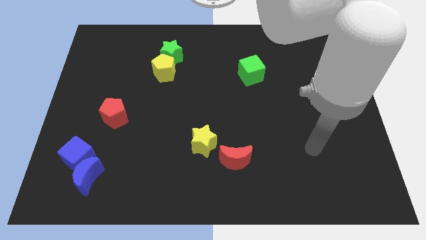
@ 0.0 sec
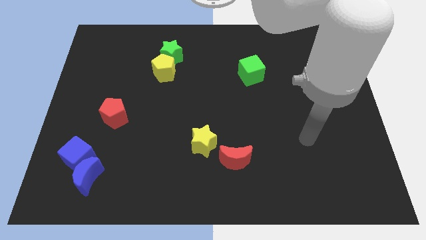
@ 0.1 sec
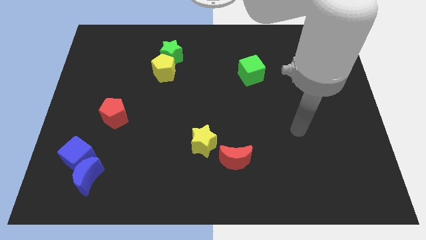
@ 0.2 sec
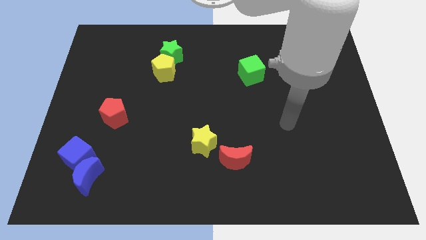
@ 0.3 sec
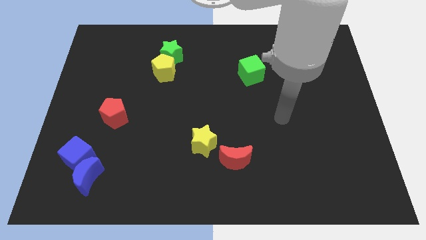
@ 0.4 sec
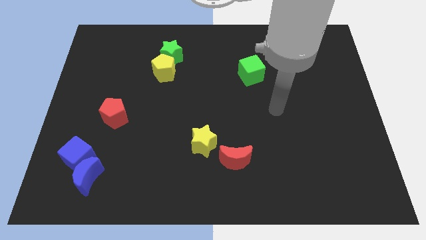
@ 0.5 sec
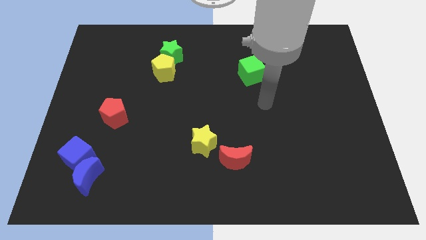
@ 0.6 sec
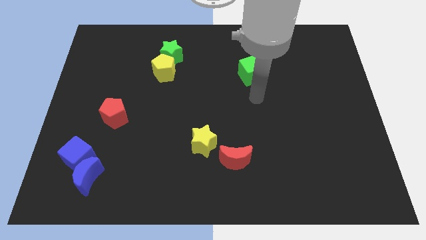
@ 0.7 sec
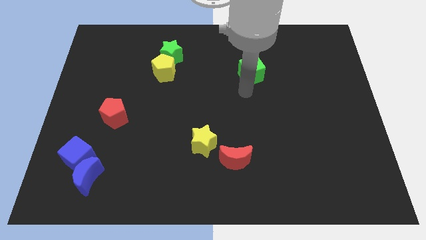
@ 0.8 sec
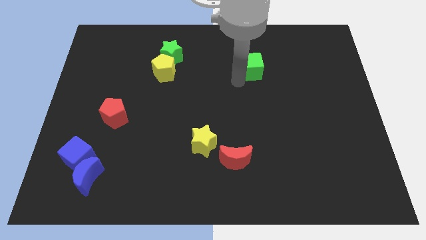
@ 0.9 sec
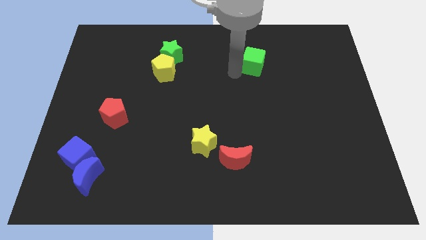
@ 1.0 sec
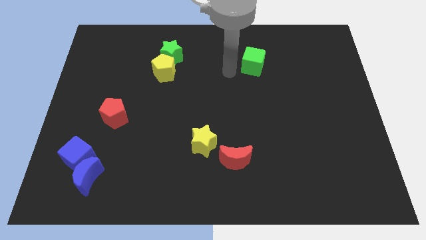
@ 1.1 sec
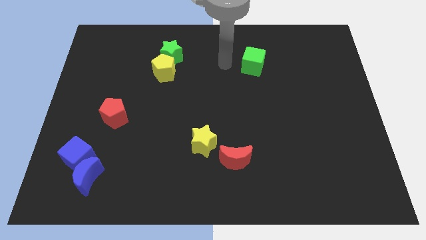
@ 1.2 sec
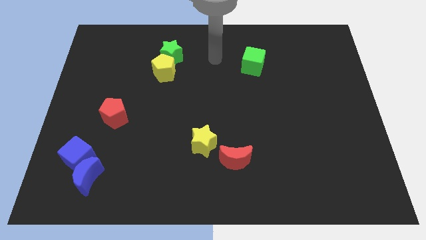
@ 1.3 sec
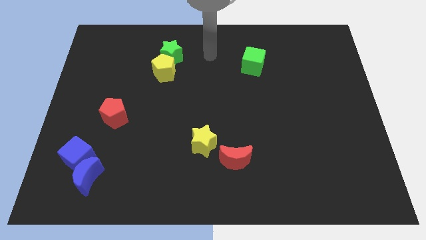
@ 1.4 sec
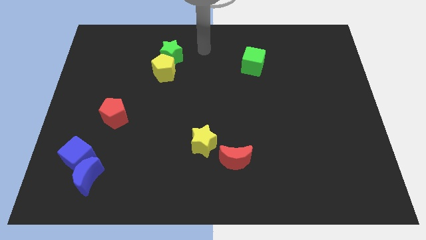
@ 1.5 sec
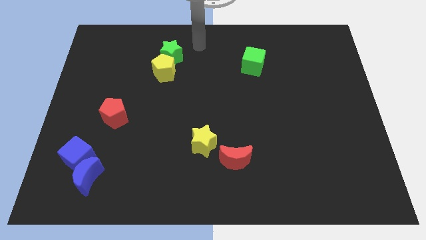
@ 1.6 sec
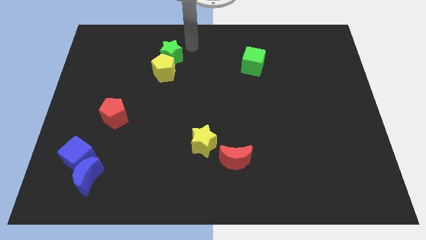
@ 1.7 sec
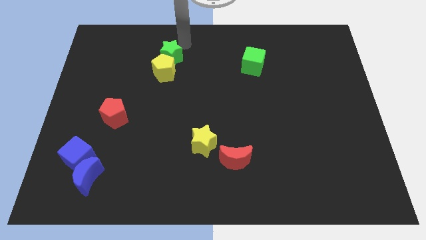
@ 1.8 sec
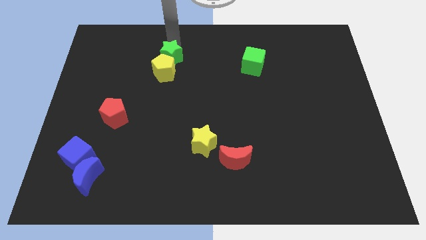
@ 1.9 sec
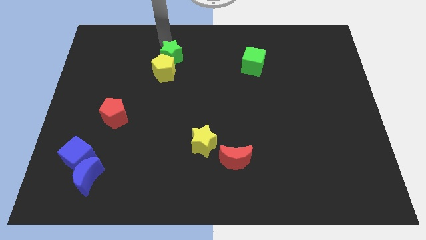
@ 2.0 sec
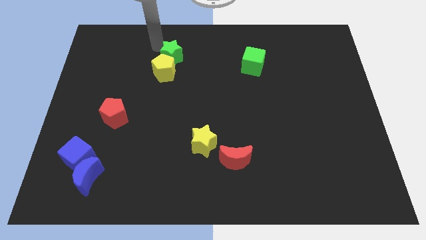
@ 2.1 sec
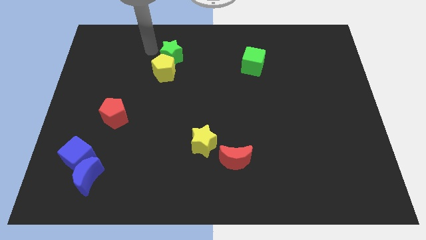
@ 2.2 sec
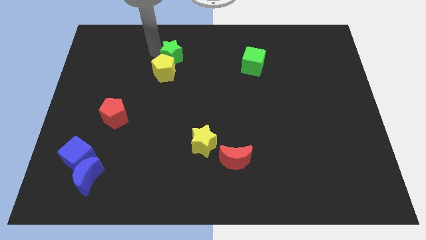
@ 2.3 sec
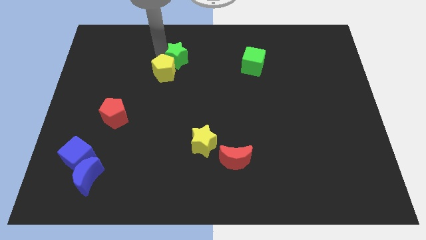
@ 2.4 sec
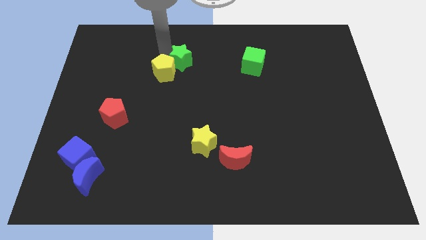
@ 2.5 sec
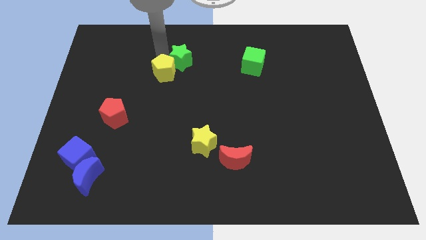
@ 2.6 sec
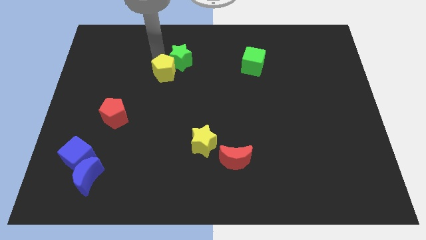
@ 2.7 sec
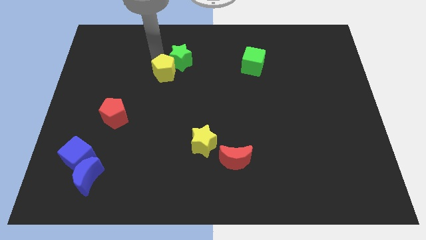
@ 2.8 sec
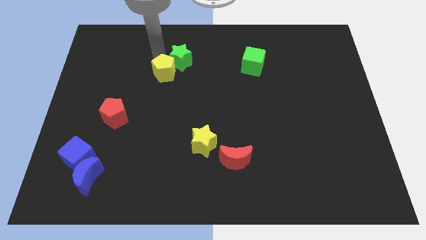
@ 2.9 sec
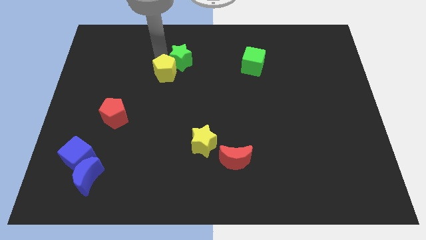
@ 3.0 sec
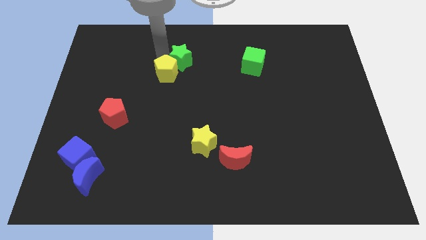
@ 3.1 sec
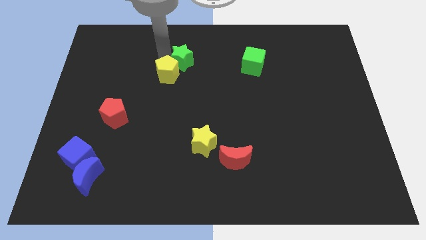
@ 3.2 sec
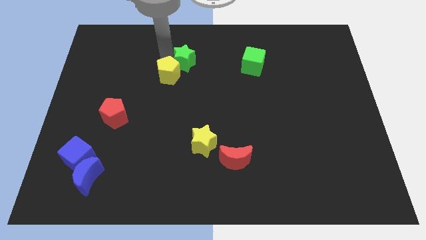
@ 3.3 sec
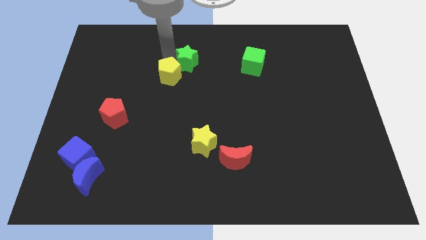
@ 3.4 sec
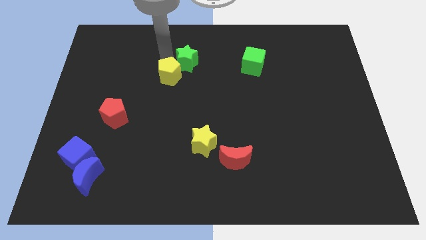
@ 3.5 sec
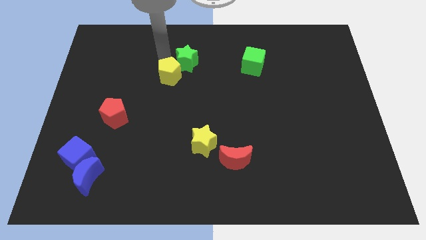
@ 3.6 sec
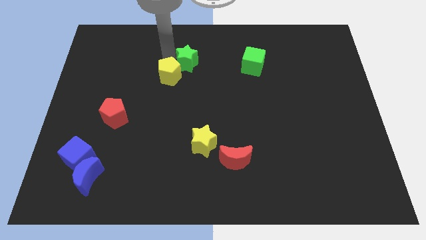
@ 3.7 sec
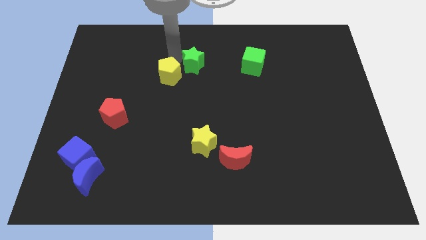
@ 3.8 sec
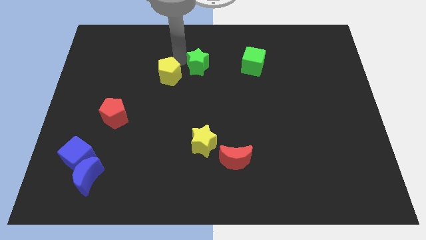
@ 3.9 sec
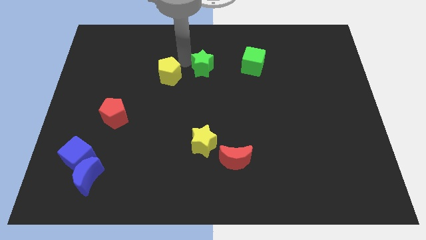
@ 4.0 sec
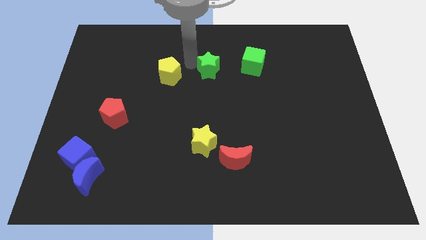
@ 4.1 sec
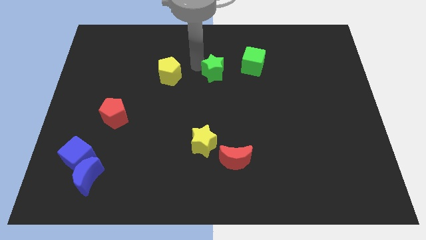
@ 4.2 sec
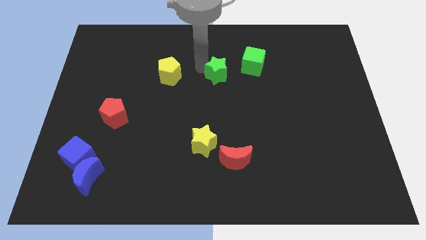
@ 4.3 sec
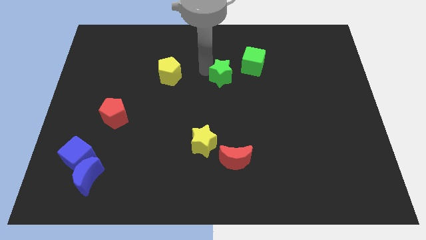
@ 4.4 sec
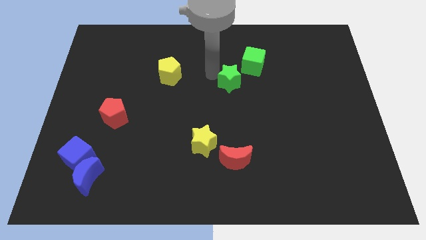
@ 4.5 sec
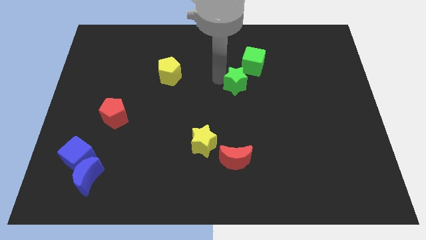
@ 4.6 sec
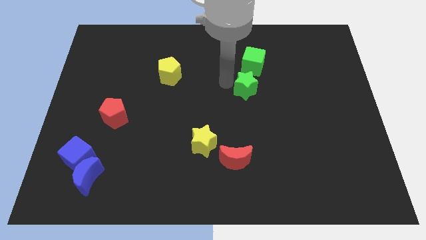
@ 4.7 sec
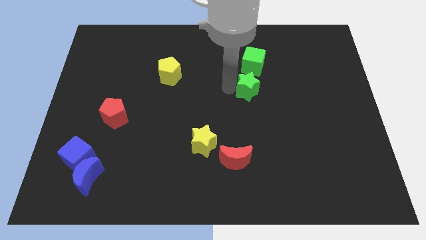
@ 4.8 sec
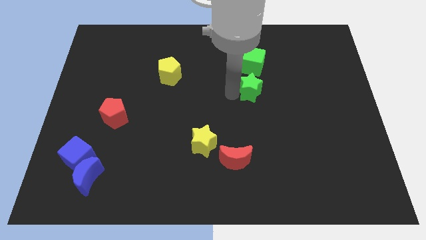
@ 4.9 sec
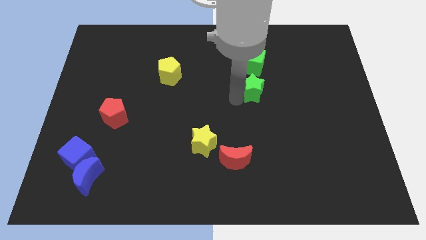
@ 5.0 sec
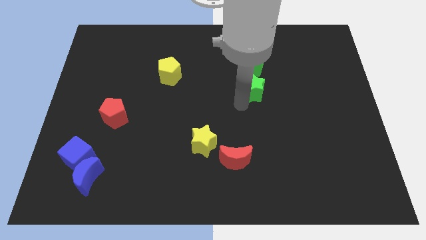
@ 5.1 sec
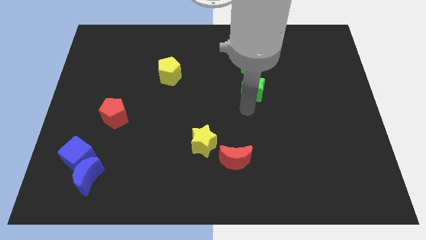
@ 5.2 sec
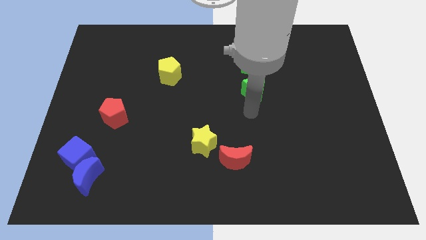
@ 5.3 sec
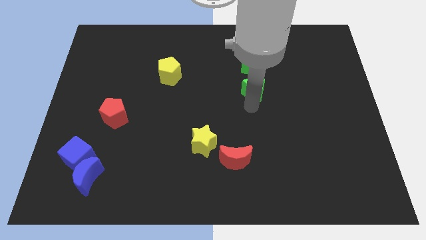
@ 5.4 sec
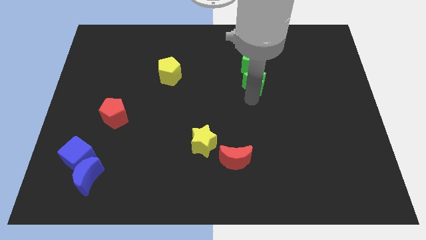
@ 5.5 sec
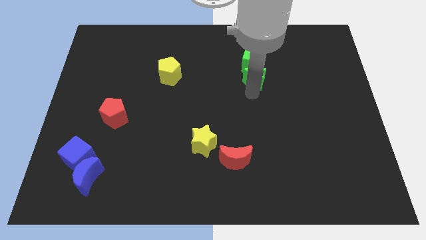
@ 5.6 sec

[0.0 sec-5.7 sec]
move the green star close to the green cube

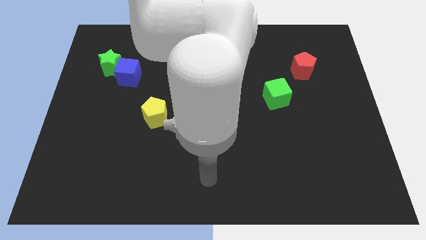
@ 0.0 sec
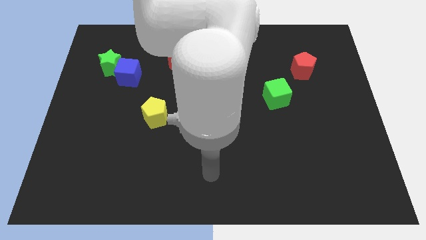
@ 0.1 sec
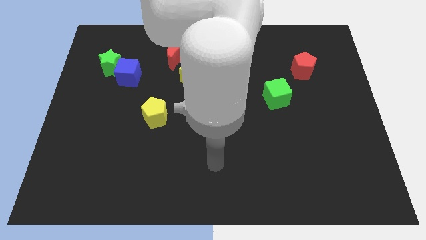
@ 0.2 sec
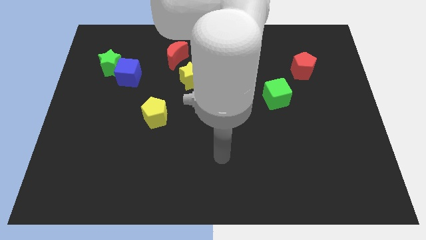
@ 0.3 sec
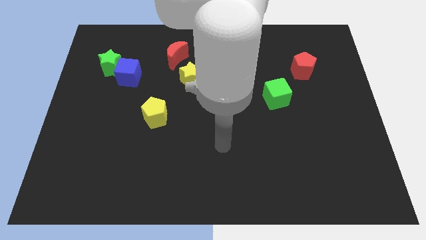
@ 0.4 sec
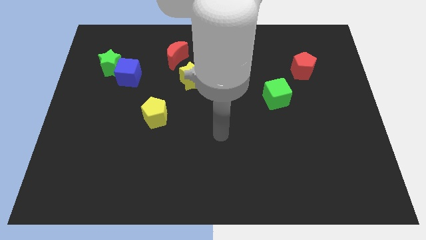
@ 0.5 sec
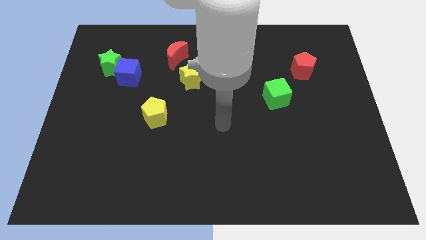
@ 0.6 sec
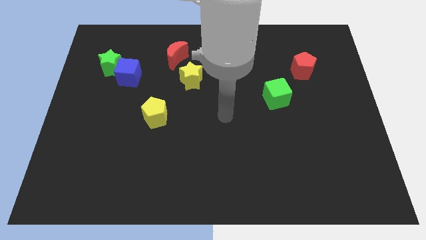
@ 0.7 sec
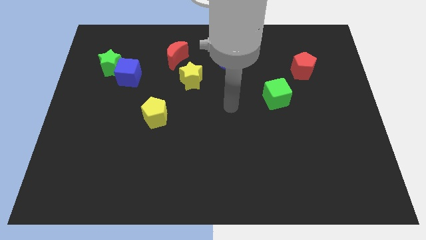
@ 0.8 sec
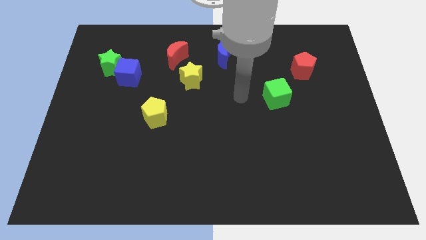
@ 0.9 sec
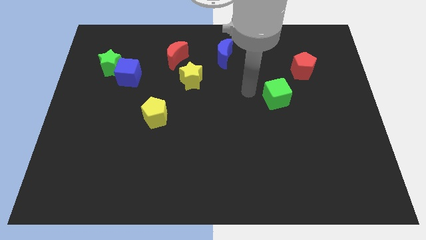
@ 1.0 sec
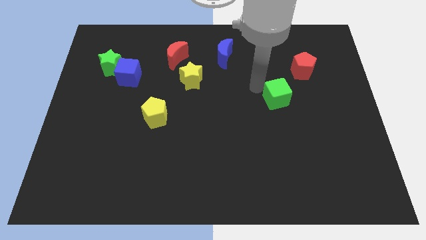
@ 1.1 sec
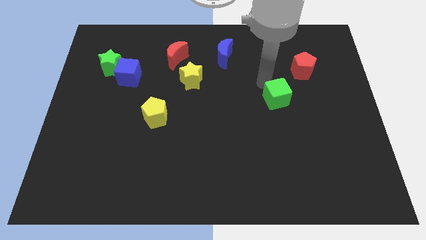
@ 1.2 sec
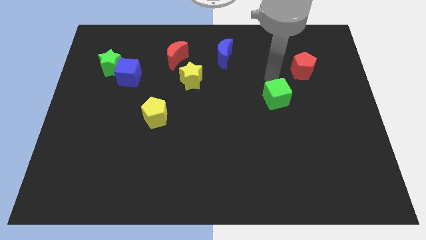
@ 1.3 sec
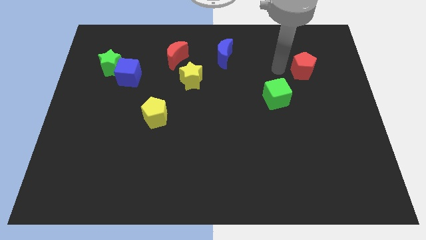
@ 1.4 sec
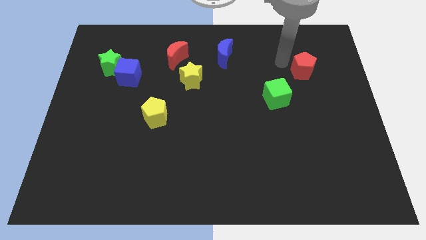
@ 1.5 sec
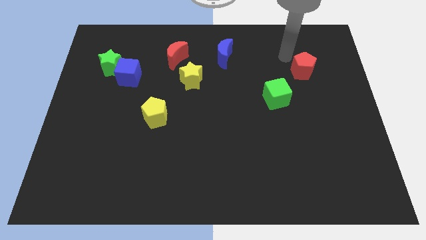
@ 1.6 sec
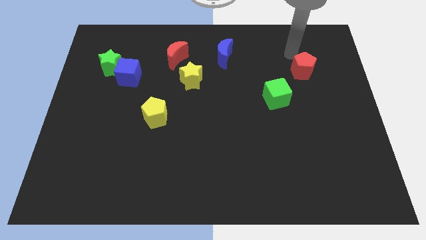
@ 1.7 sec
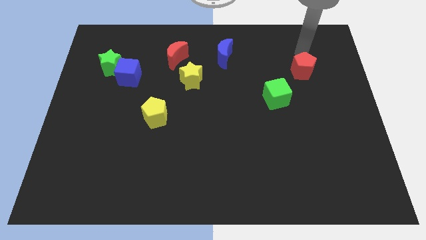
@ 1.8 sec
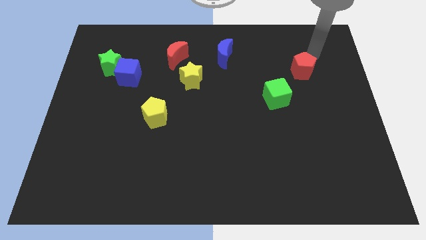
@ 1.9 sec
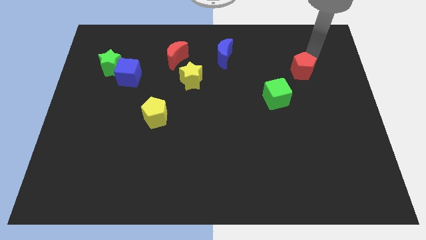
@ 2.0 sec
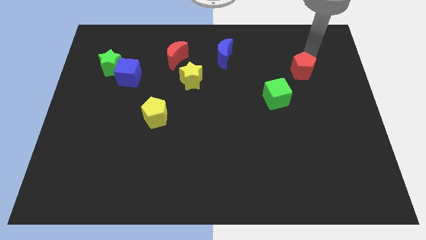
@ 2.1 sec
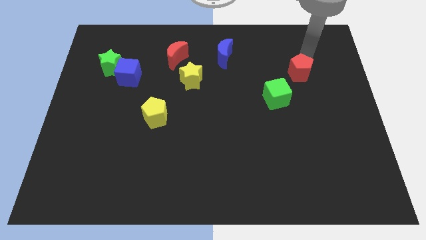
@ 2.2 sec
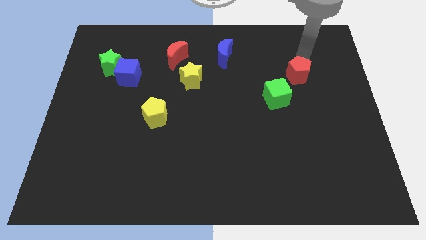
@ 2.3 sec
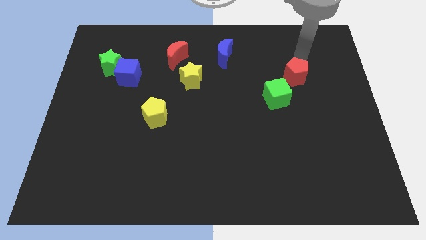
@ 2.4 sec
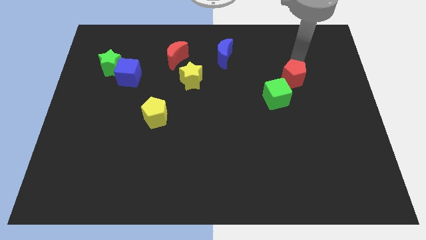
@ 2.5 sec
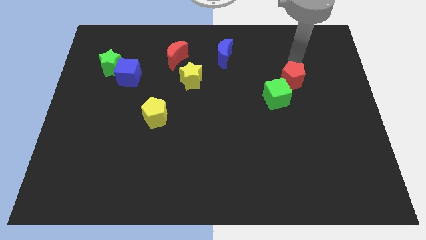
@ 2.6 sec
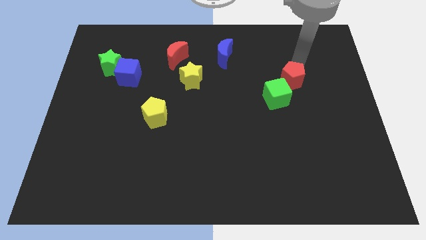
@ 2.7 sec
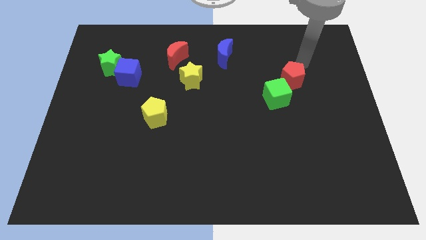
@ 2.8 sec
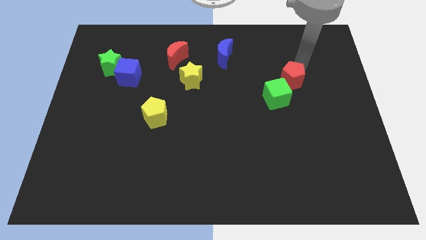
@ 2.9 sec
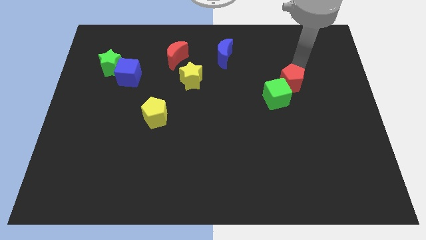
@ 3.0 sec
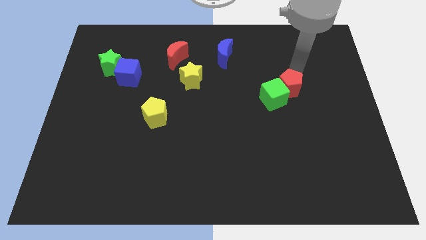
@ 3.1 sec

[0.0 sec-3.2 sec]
slide the red pentagon towards the green cube
